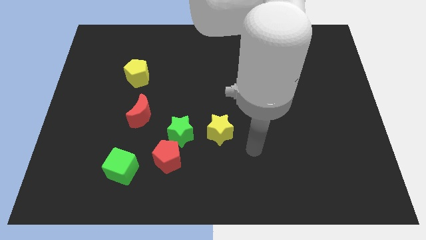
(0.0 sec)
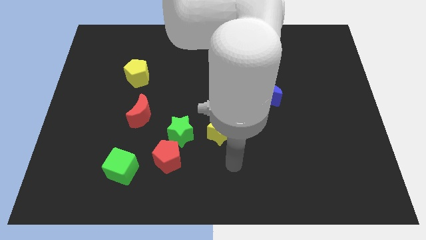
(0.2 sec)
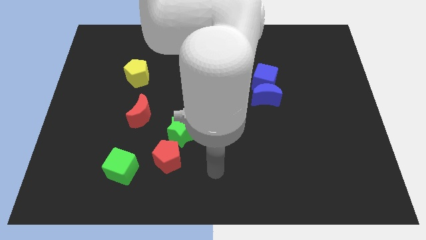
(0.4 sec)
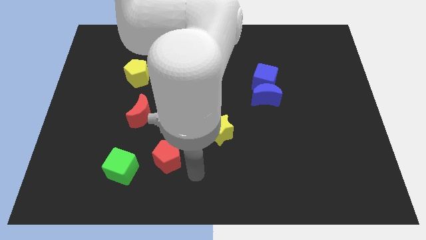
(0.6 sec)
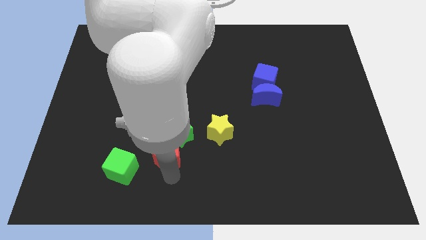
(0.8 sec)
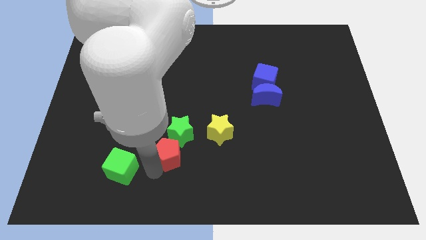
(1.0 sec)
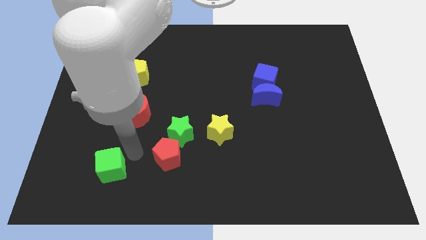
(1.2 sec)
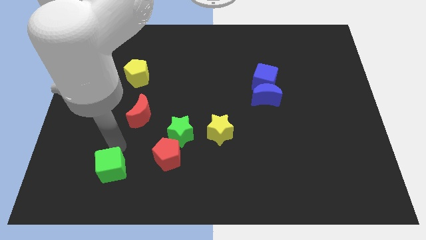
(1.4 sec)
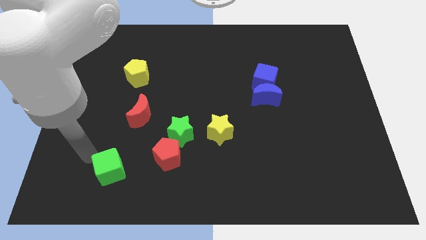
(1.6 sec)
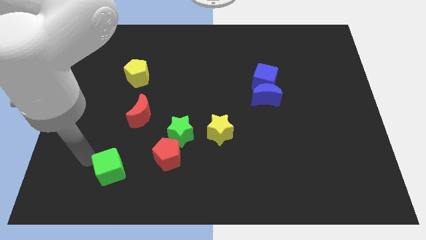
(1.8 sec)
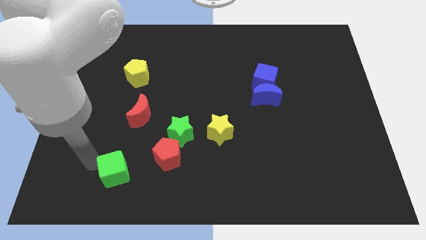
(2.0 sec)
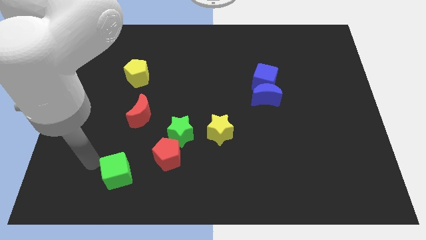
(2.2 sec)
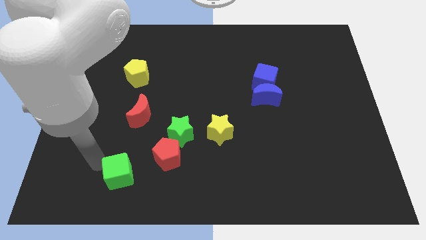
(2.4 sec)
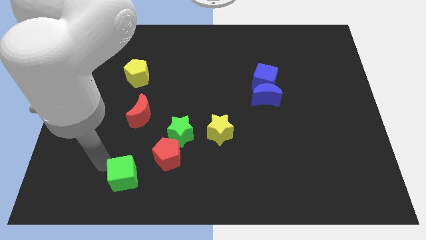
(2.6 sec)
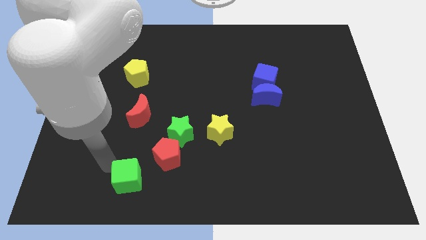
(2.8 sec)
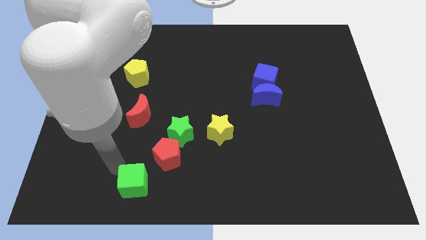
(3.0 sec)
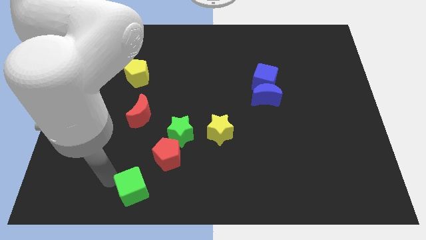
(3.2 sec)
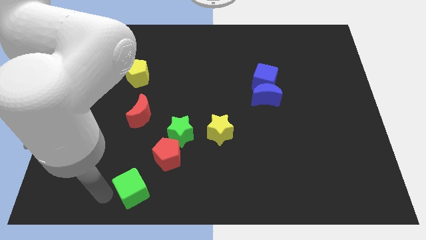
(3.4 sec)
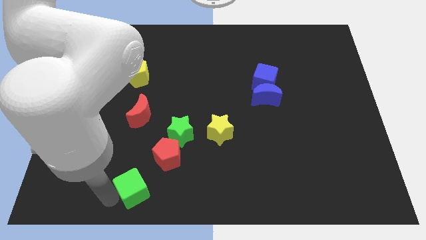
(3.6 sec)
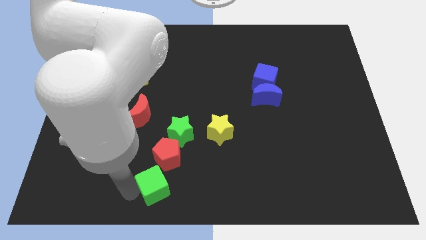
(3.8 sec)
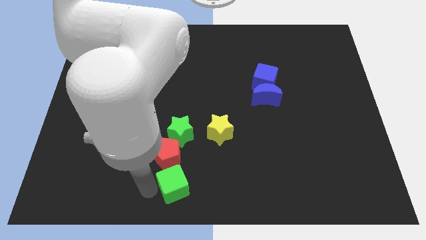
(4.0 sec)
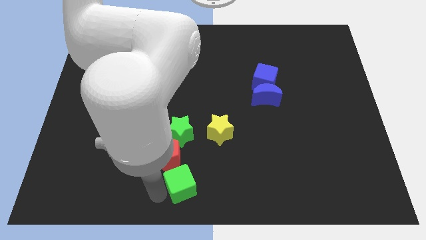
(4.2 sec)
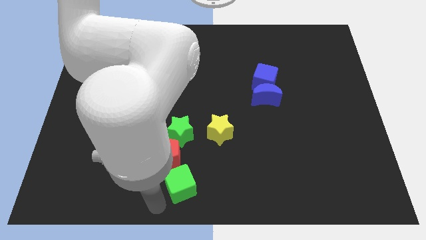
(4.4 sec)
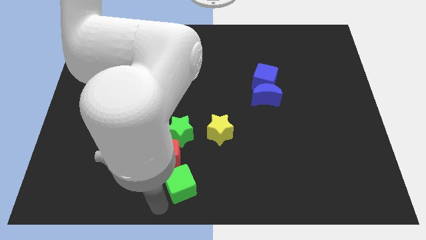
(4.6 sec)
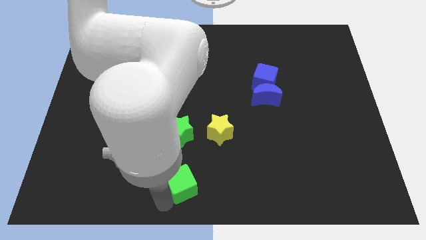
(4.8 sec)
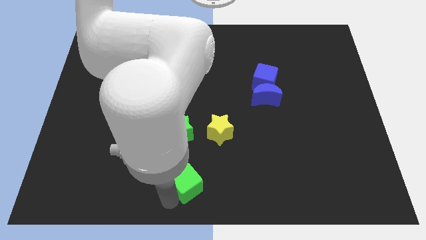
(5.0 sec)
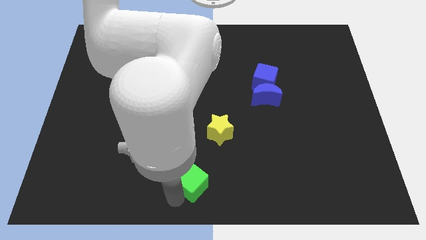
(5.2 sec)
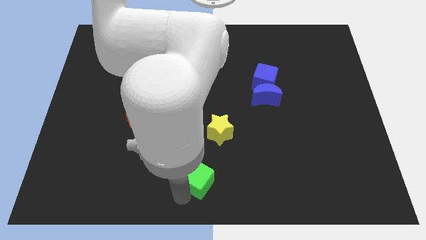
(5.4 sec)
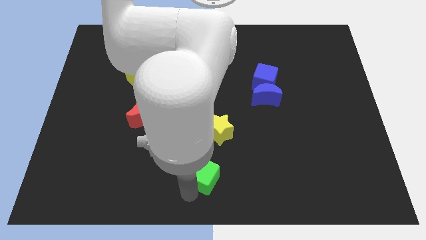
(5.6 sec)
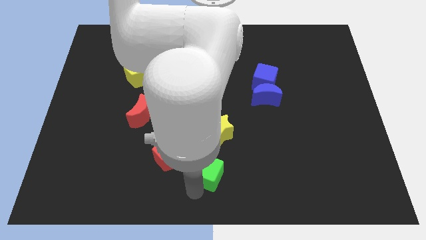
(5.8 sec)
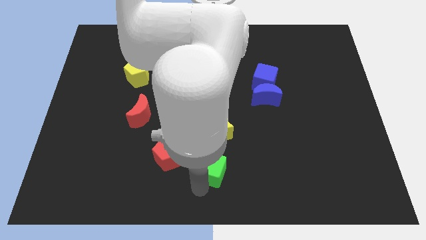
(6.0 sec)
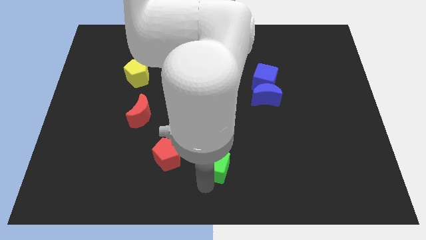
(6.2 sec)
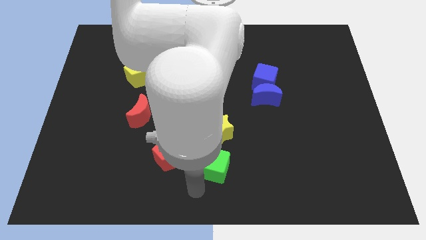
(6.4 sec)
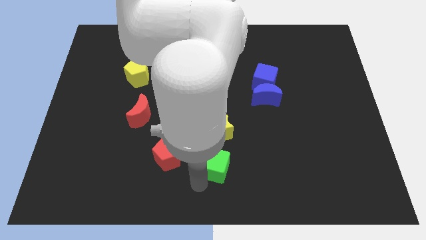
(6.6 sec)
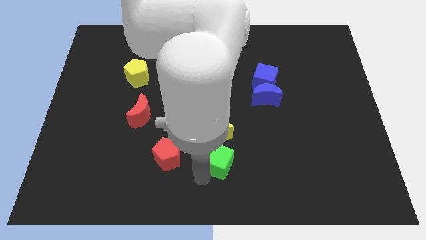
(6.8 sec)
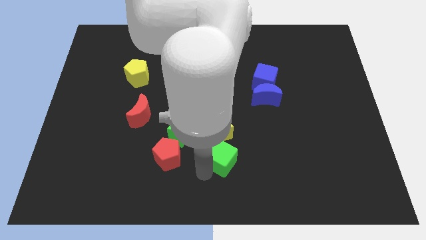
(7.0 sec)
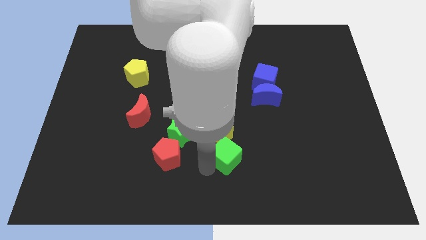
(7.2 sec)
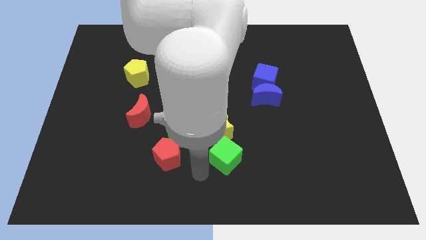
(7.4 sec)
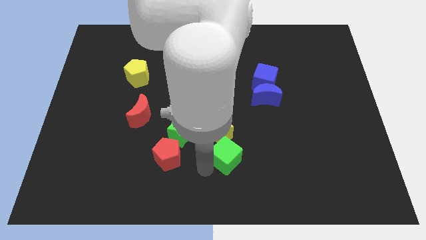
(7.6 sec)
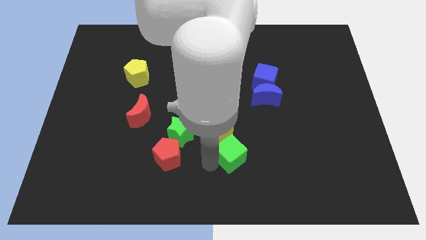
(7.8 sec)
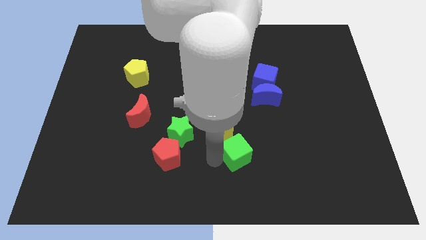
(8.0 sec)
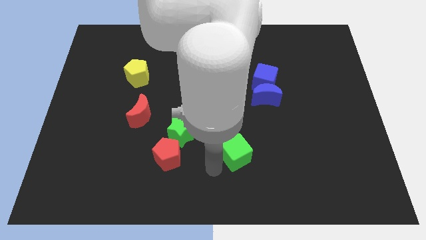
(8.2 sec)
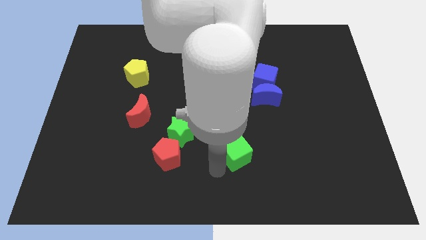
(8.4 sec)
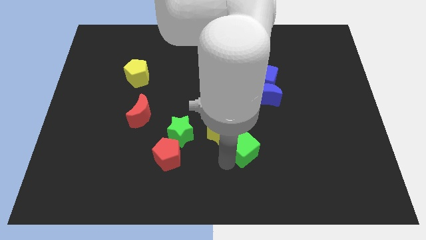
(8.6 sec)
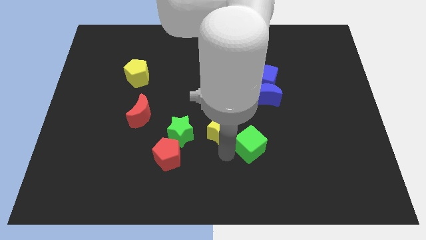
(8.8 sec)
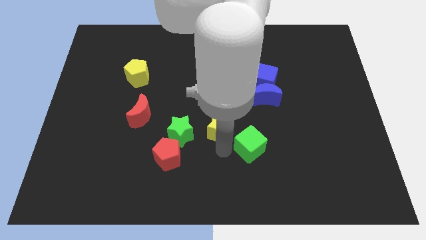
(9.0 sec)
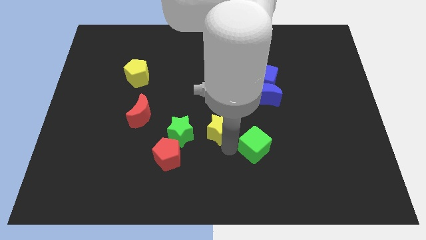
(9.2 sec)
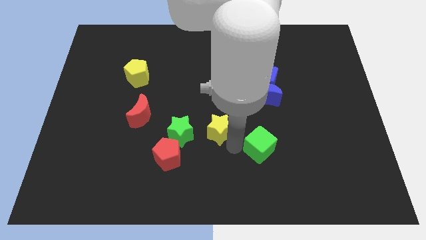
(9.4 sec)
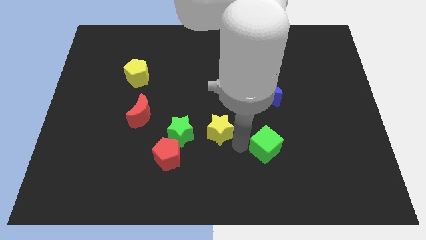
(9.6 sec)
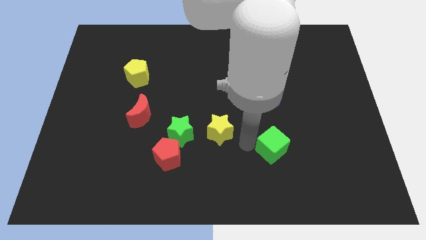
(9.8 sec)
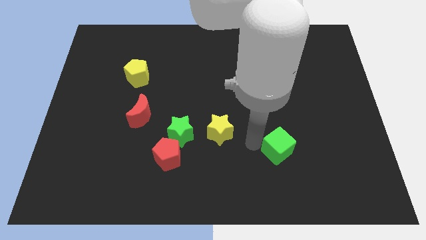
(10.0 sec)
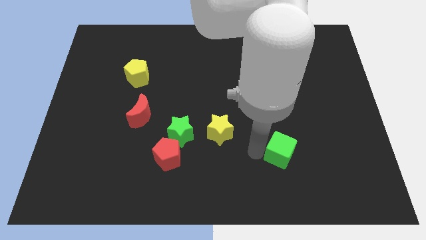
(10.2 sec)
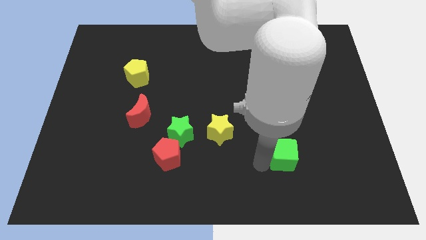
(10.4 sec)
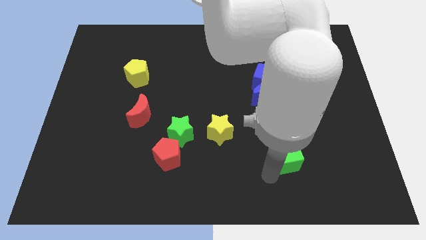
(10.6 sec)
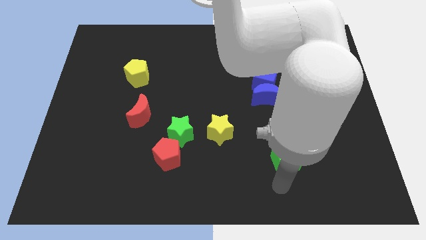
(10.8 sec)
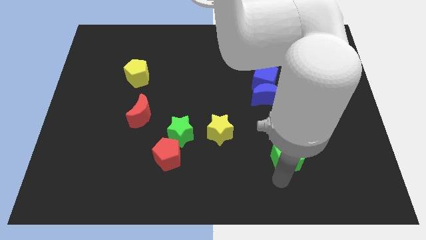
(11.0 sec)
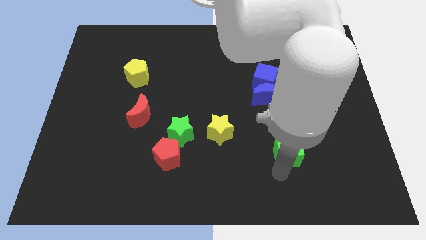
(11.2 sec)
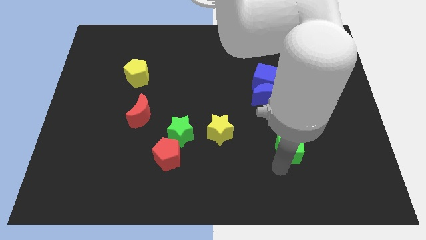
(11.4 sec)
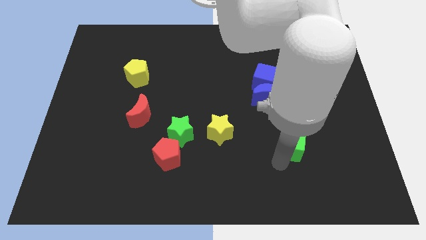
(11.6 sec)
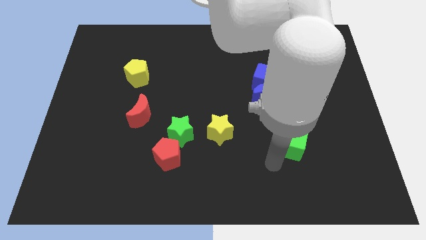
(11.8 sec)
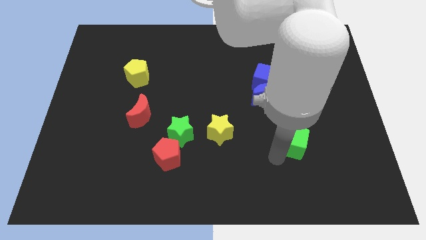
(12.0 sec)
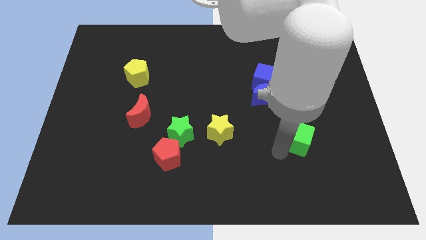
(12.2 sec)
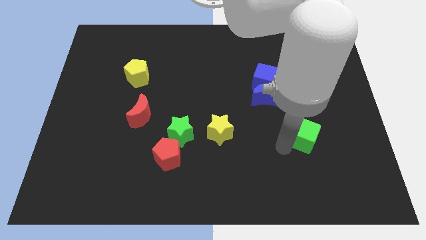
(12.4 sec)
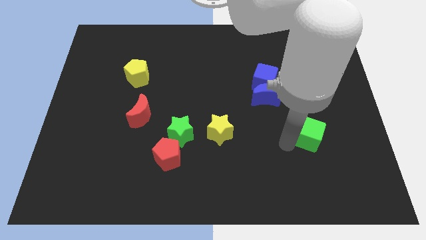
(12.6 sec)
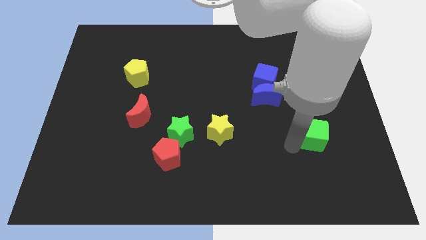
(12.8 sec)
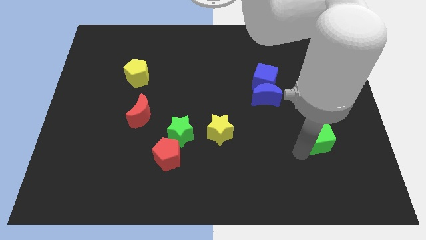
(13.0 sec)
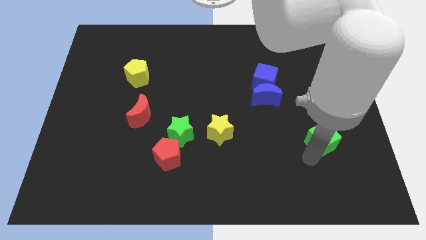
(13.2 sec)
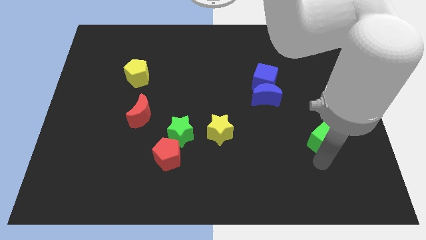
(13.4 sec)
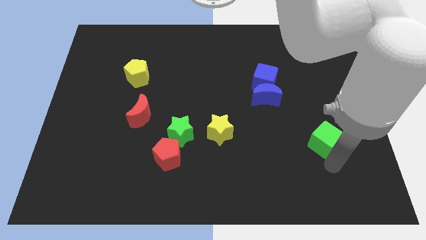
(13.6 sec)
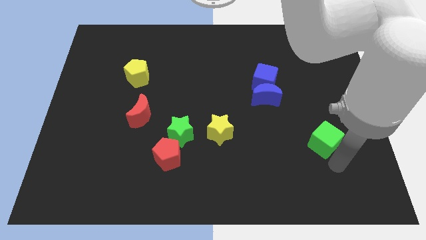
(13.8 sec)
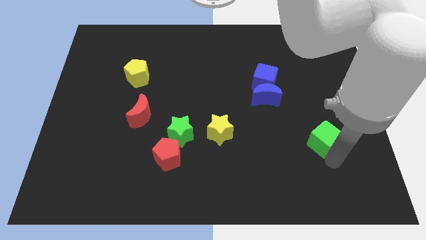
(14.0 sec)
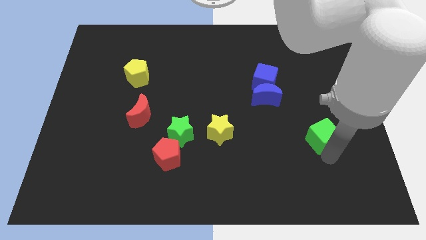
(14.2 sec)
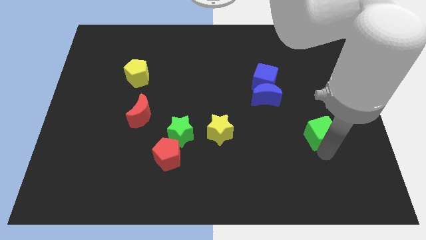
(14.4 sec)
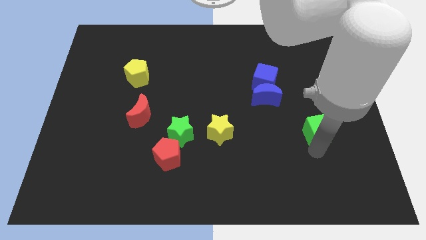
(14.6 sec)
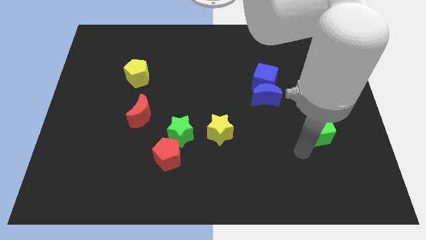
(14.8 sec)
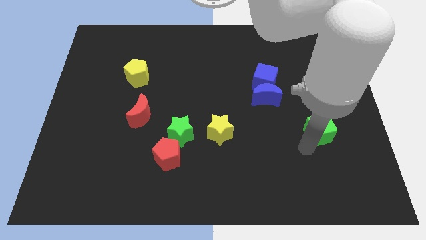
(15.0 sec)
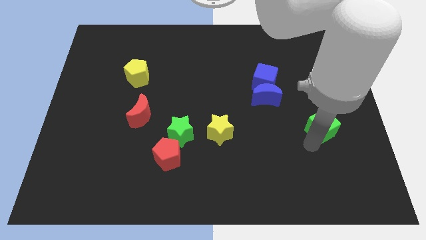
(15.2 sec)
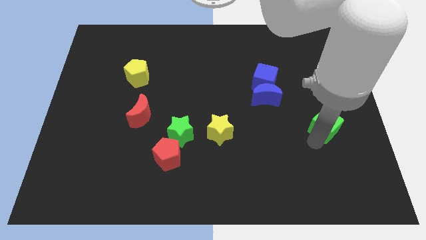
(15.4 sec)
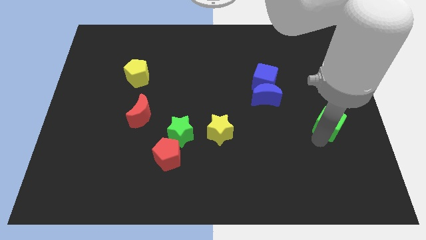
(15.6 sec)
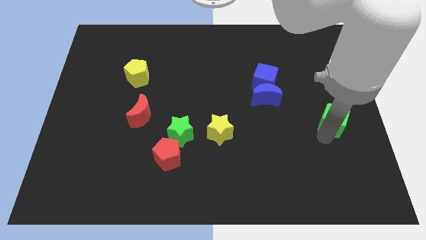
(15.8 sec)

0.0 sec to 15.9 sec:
slide the green cube to the center right
